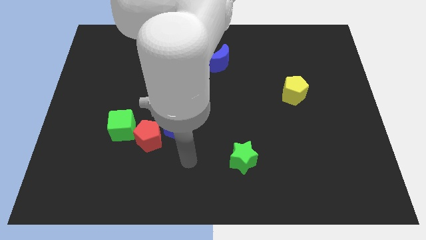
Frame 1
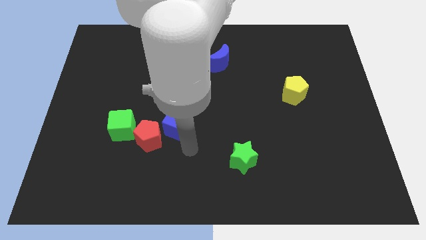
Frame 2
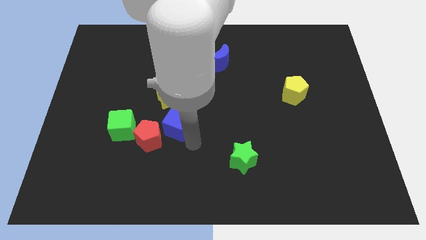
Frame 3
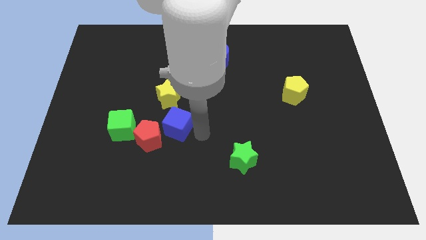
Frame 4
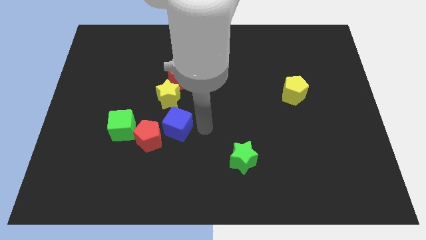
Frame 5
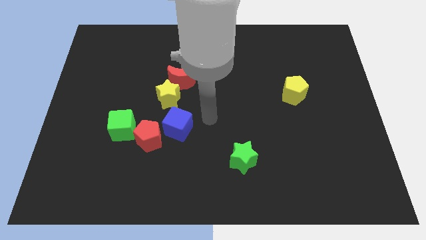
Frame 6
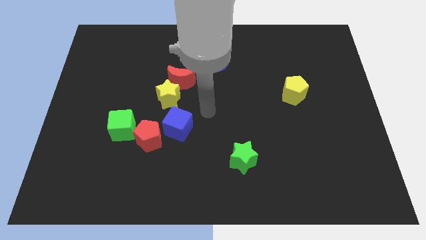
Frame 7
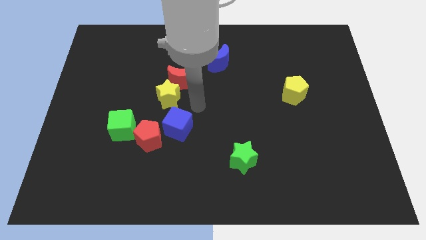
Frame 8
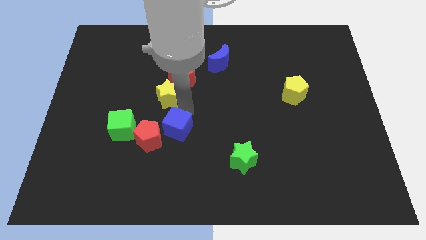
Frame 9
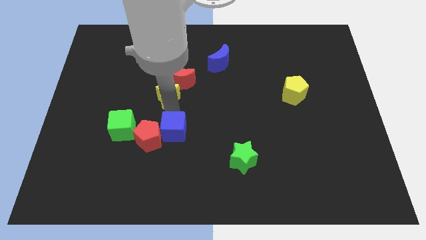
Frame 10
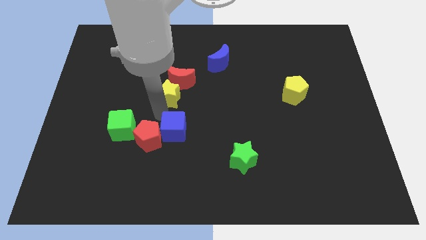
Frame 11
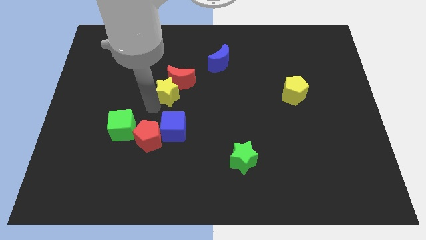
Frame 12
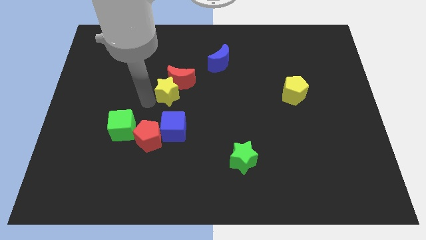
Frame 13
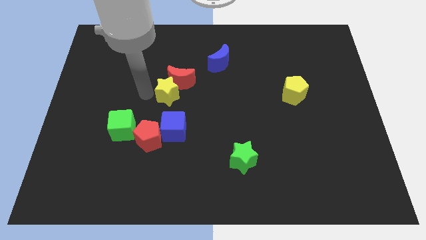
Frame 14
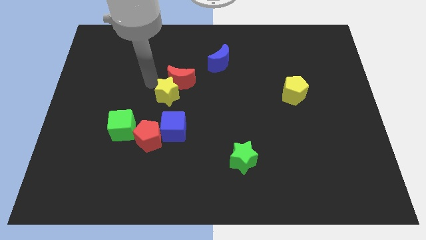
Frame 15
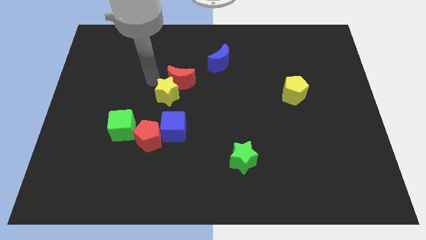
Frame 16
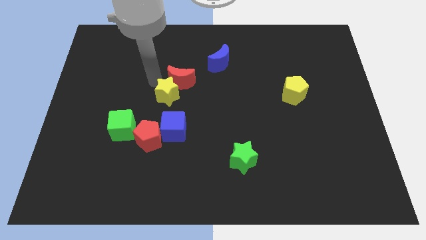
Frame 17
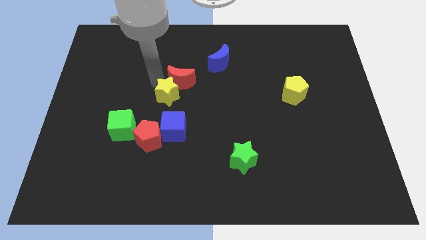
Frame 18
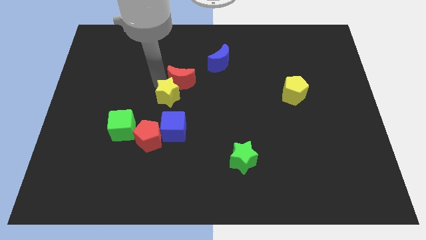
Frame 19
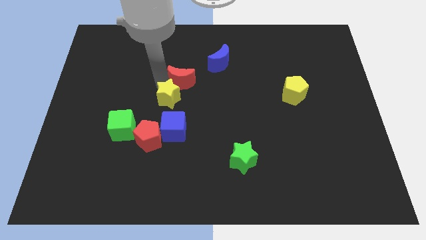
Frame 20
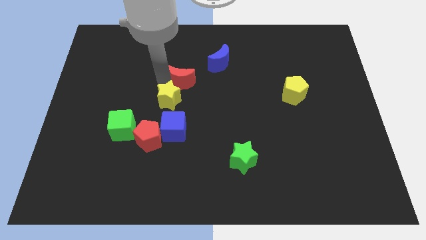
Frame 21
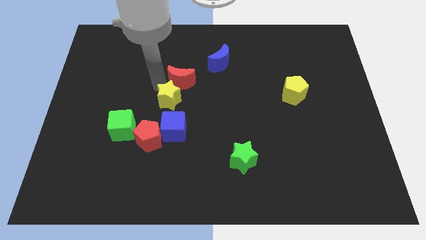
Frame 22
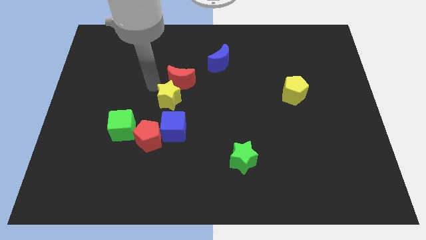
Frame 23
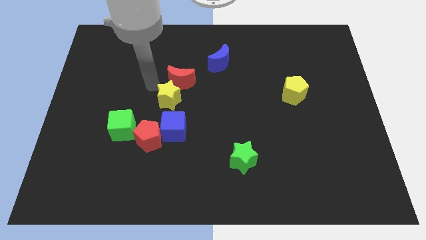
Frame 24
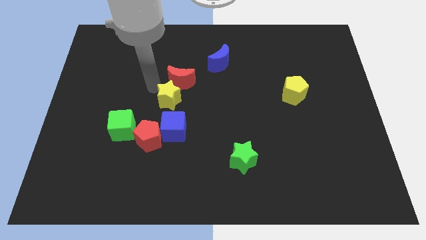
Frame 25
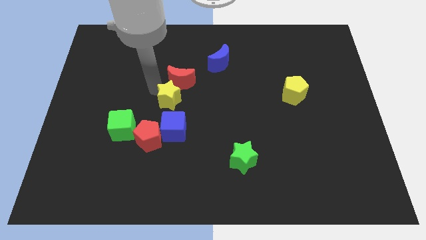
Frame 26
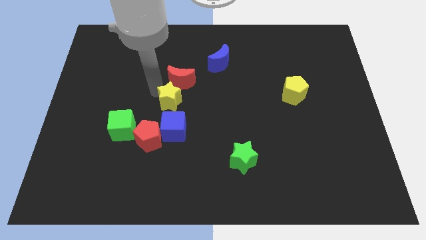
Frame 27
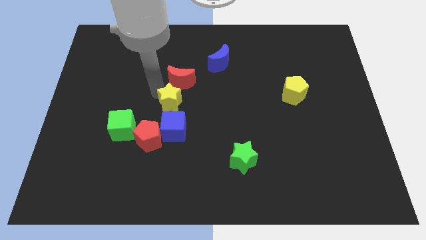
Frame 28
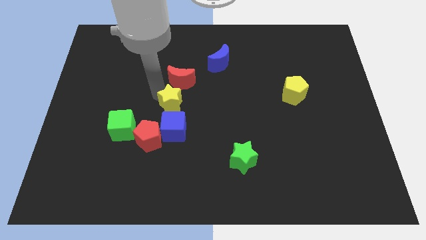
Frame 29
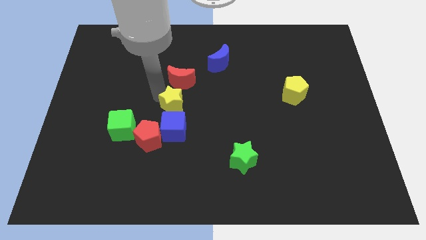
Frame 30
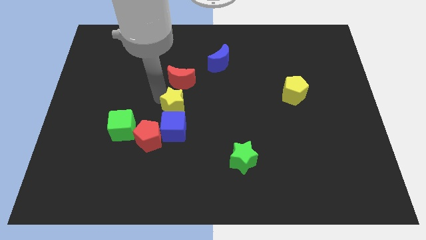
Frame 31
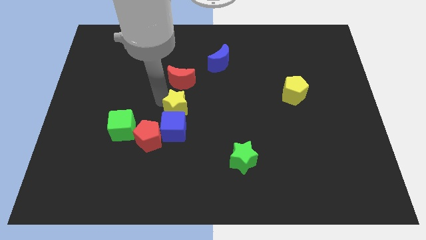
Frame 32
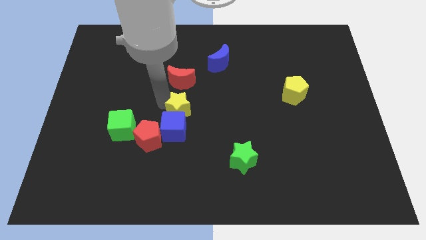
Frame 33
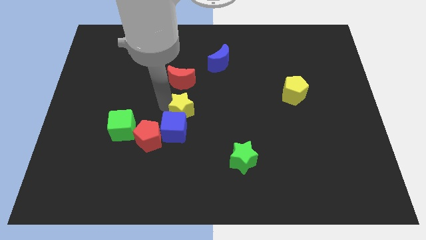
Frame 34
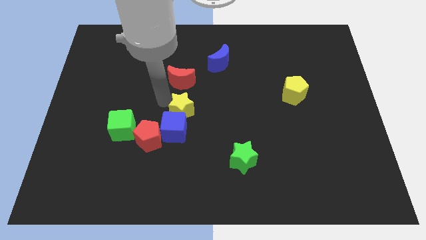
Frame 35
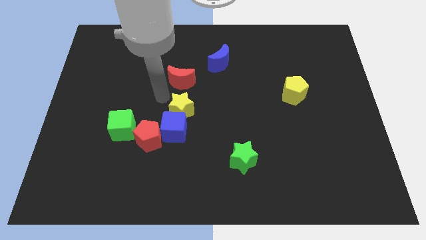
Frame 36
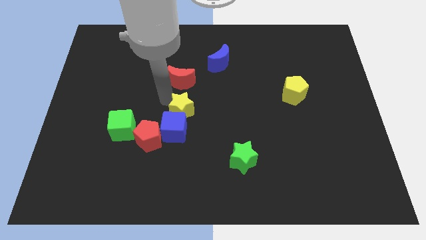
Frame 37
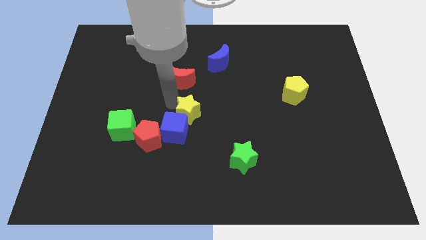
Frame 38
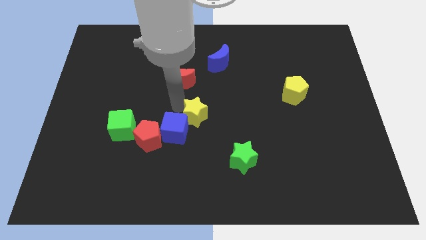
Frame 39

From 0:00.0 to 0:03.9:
move the yellow star a little diagonally downwards and right

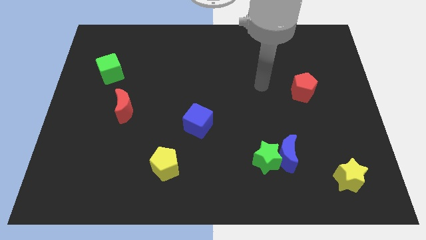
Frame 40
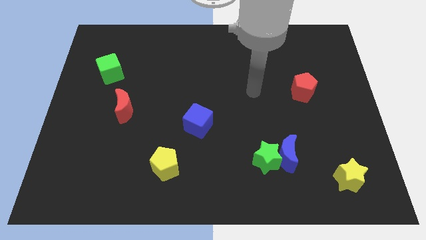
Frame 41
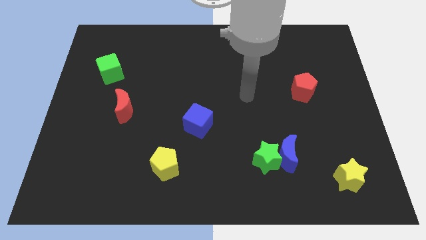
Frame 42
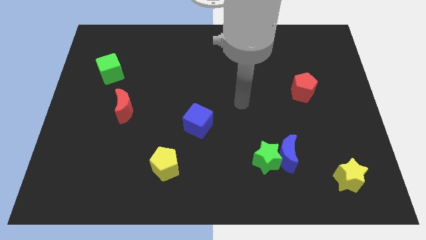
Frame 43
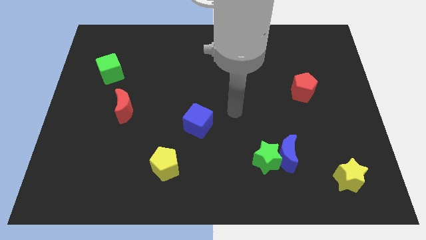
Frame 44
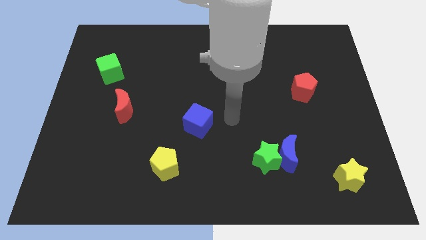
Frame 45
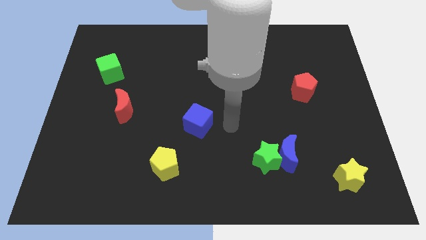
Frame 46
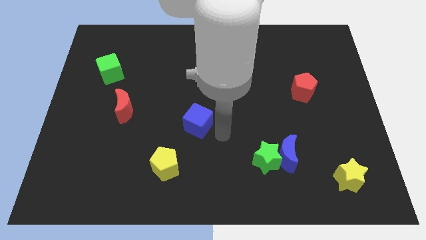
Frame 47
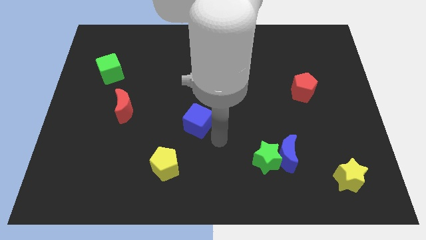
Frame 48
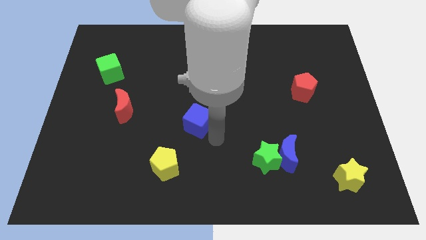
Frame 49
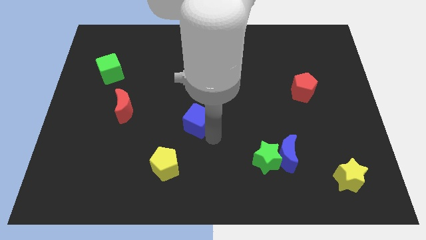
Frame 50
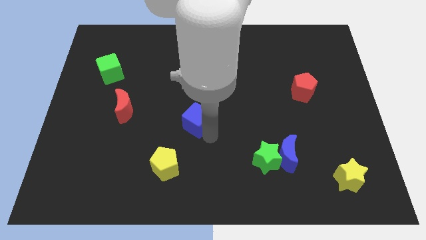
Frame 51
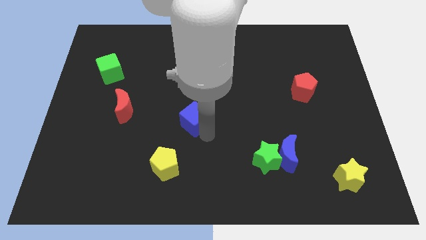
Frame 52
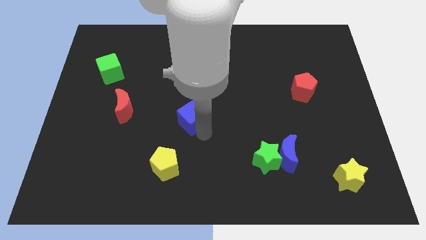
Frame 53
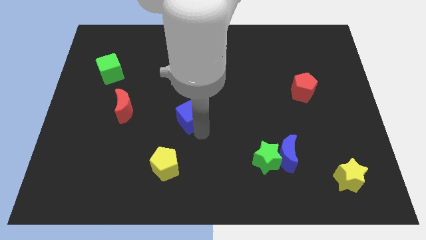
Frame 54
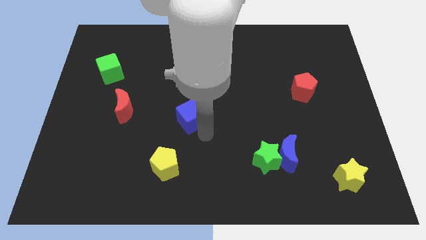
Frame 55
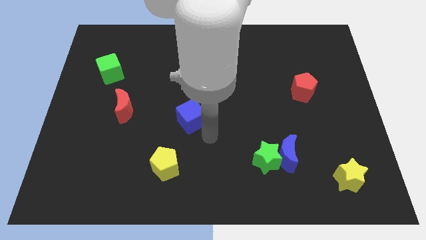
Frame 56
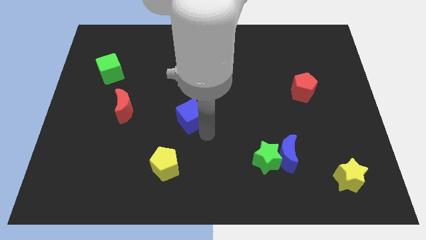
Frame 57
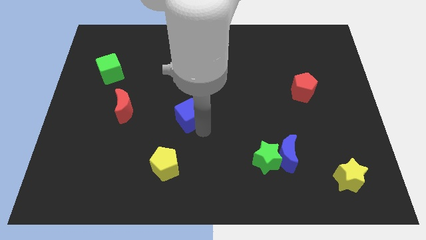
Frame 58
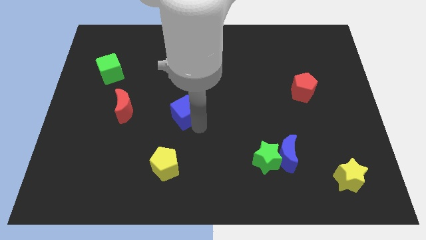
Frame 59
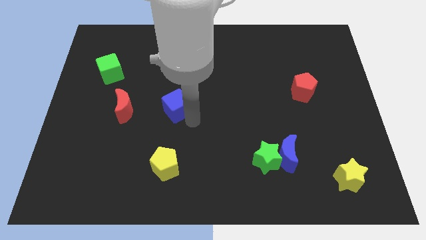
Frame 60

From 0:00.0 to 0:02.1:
move the blue cube up and to the left a bit

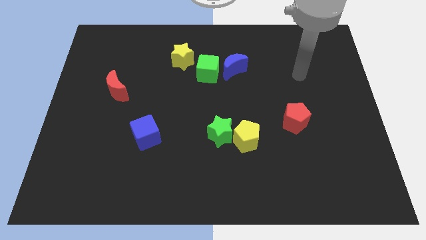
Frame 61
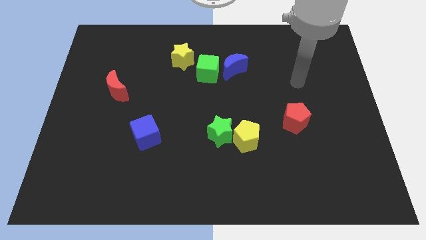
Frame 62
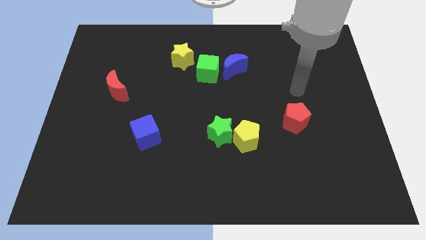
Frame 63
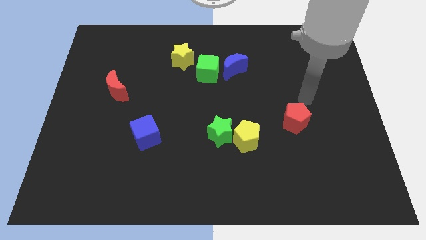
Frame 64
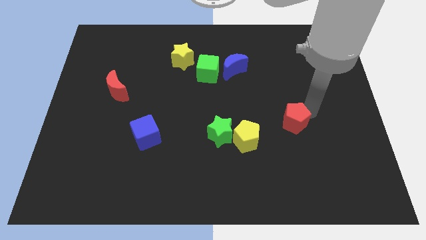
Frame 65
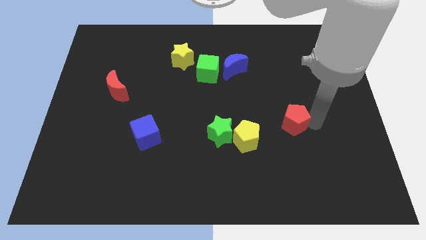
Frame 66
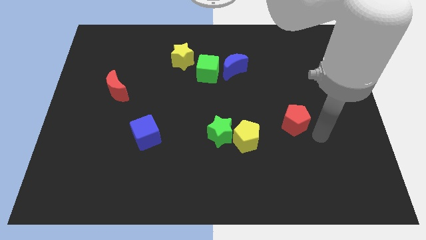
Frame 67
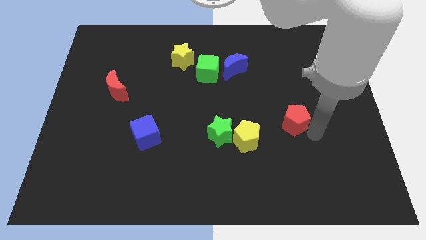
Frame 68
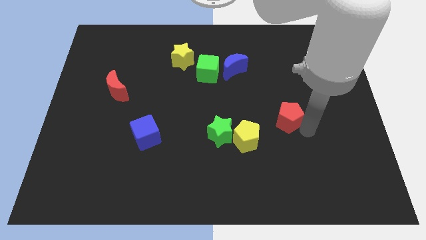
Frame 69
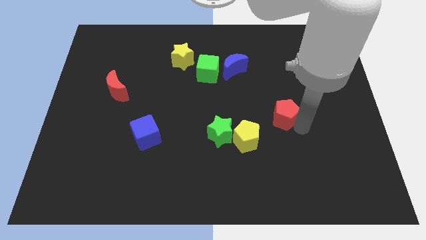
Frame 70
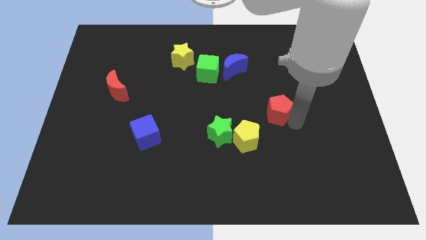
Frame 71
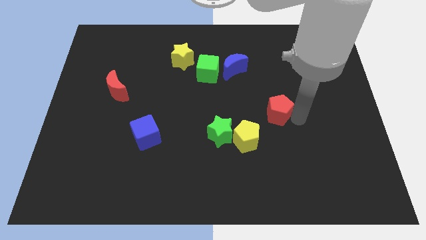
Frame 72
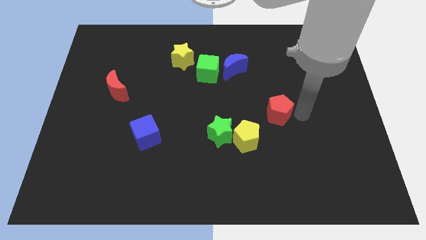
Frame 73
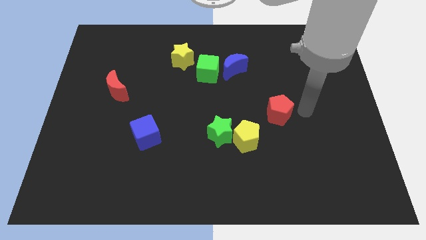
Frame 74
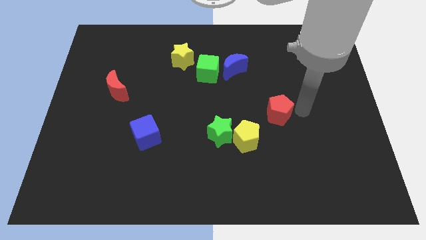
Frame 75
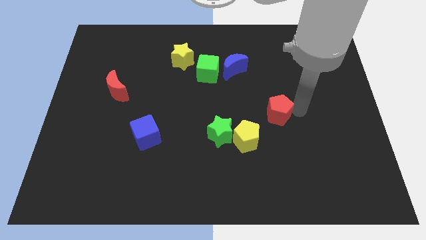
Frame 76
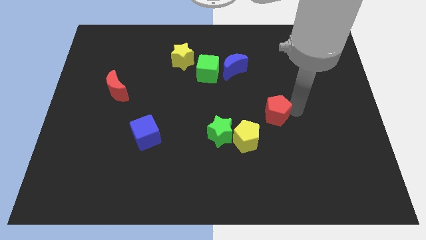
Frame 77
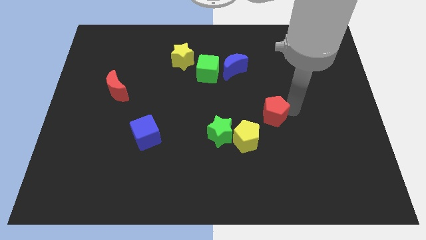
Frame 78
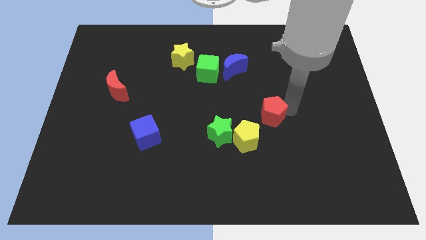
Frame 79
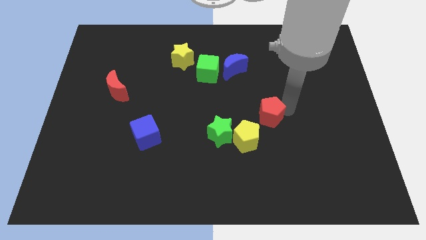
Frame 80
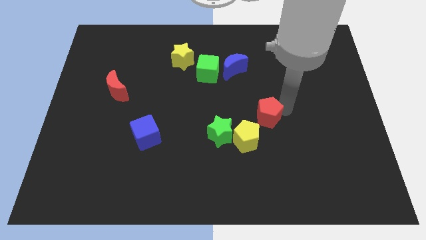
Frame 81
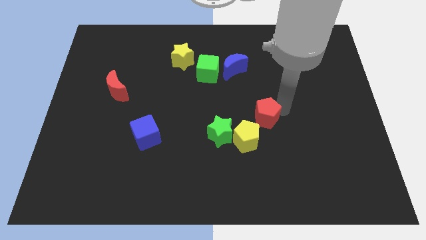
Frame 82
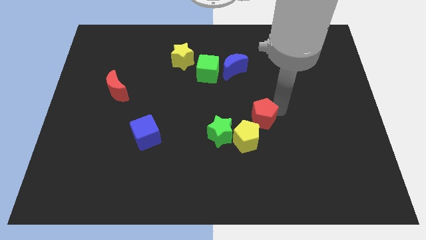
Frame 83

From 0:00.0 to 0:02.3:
slide the red pentagon left a bit

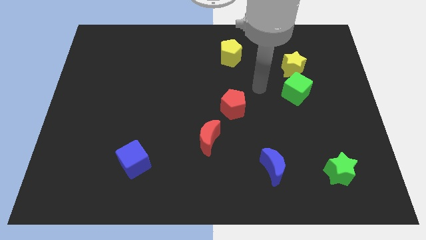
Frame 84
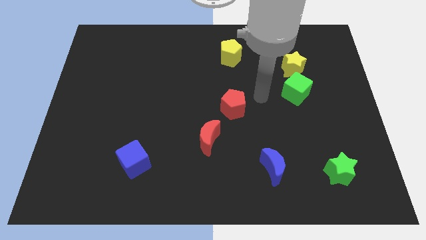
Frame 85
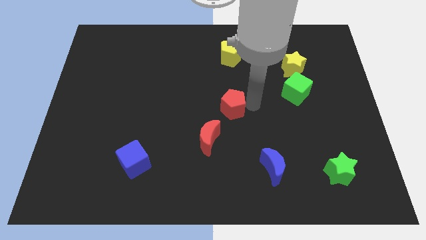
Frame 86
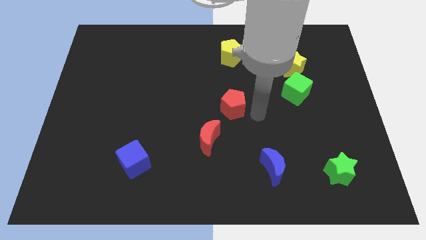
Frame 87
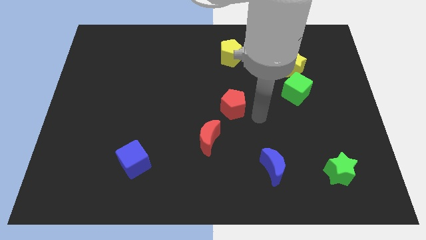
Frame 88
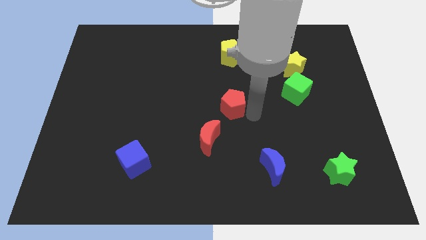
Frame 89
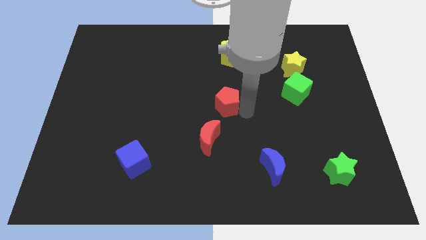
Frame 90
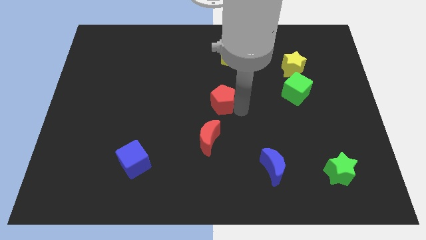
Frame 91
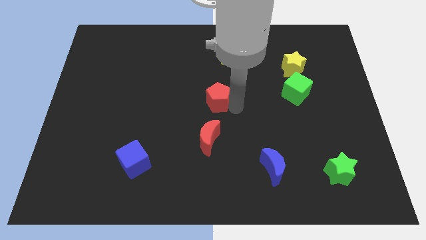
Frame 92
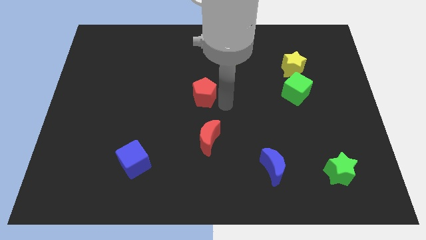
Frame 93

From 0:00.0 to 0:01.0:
slide the red pentagon diagonally upwards and left somewhat
